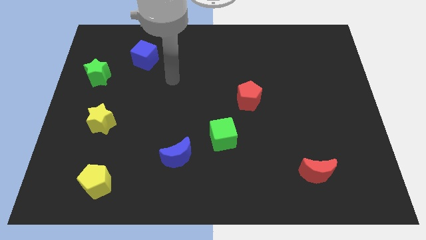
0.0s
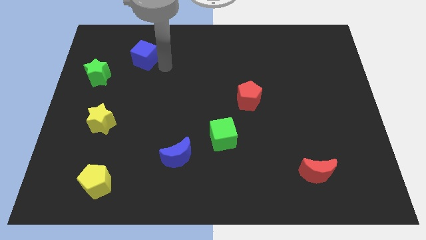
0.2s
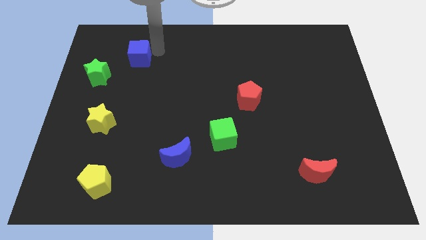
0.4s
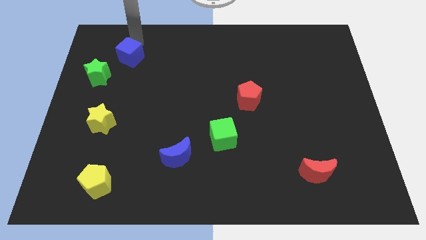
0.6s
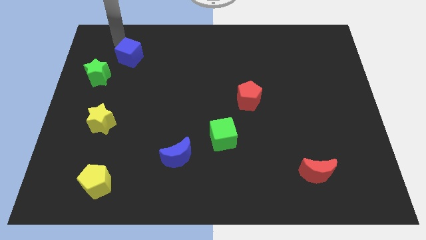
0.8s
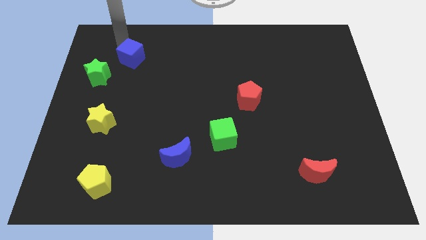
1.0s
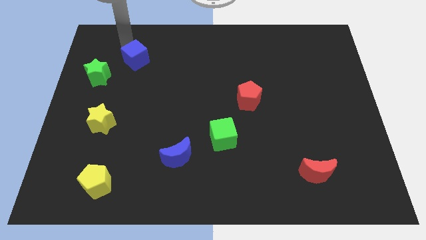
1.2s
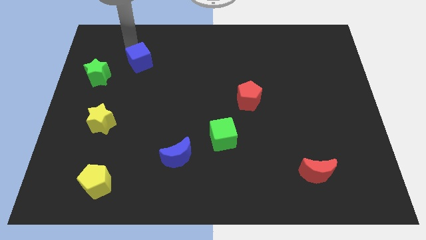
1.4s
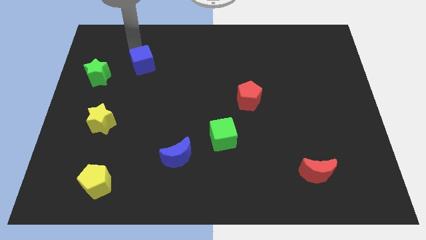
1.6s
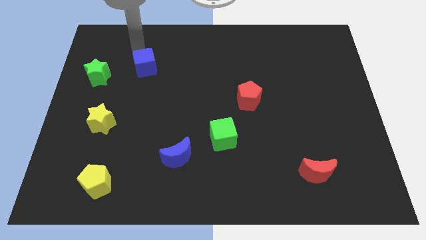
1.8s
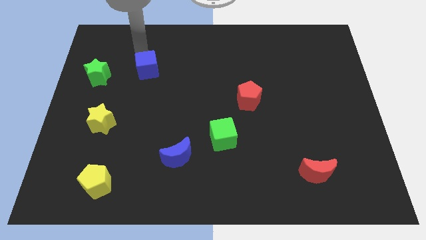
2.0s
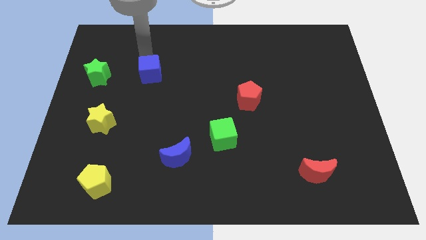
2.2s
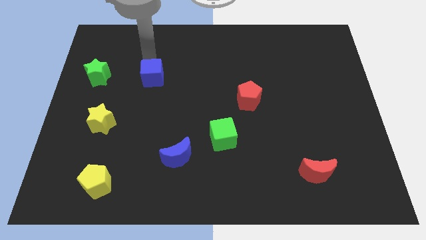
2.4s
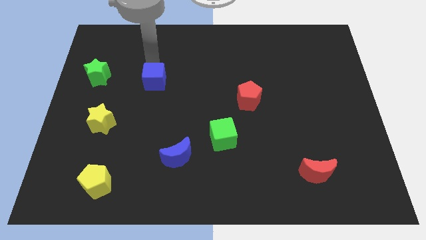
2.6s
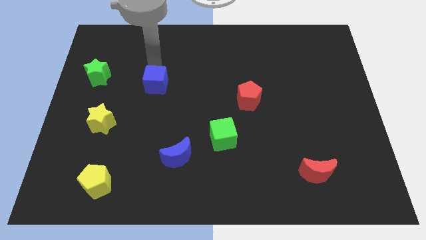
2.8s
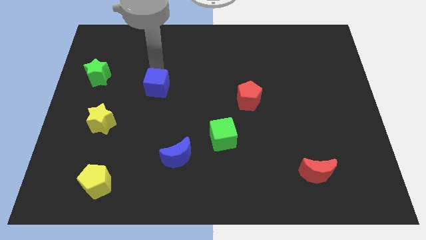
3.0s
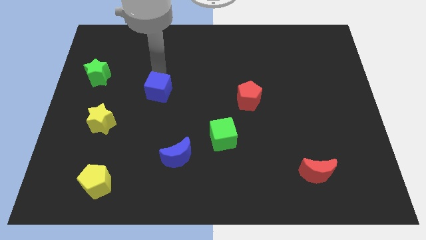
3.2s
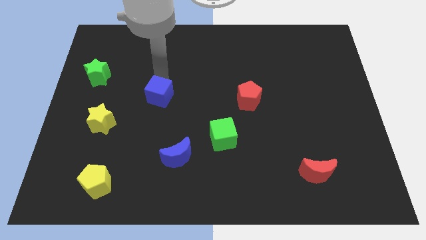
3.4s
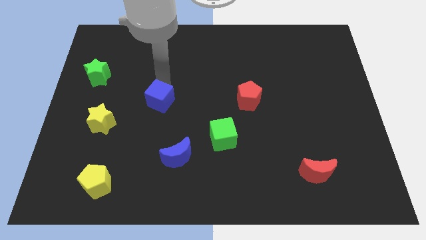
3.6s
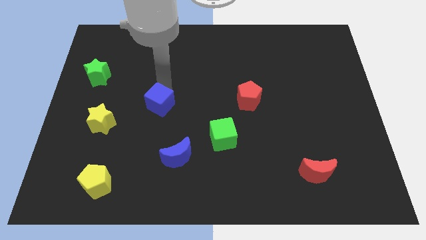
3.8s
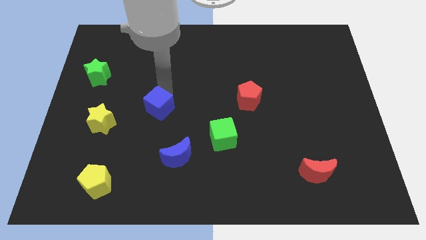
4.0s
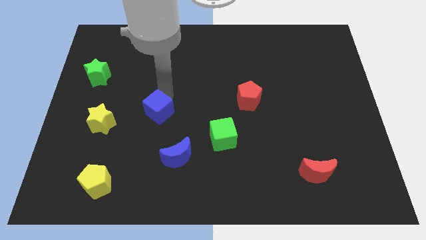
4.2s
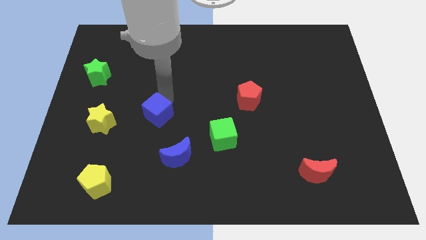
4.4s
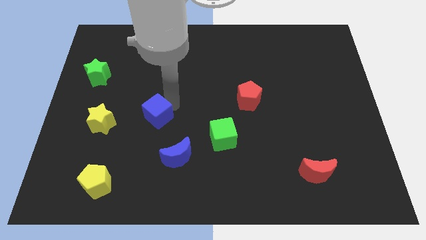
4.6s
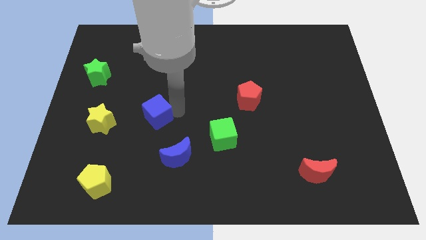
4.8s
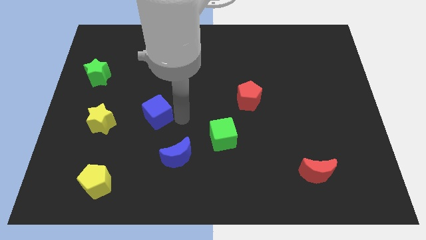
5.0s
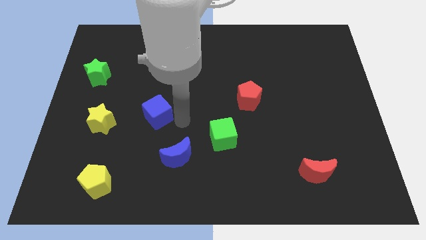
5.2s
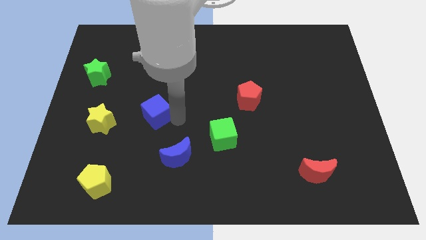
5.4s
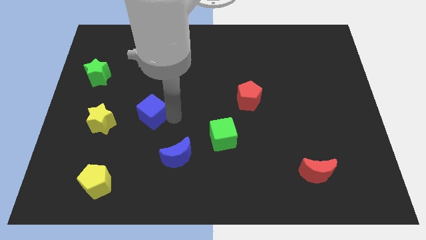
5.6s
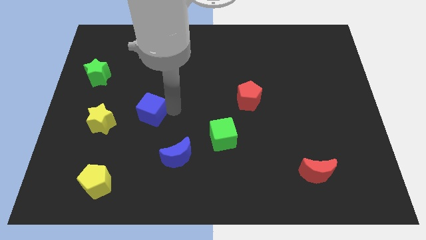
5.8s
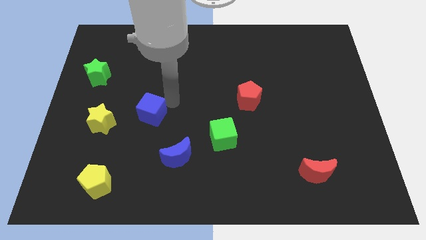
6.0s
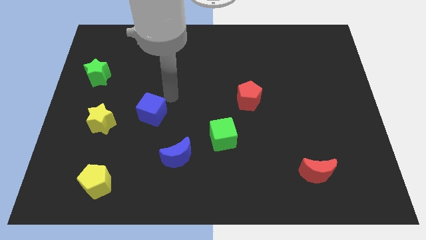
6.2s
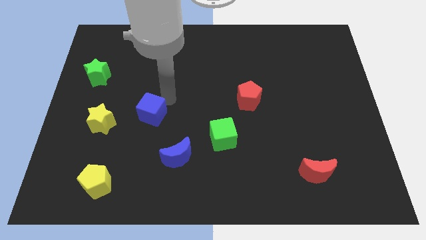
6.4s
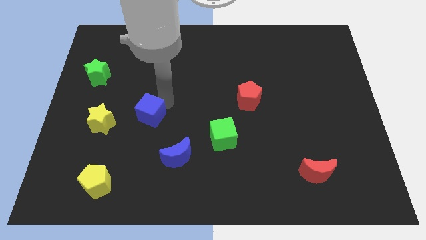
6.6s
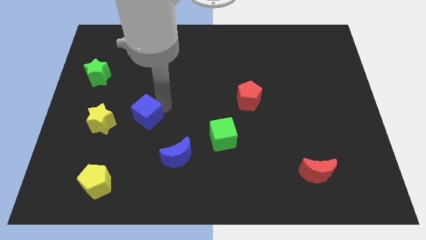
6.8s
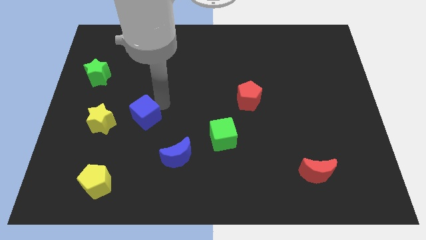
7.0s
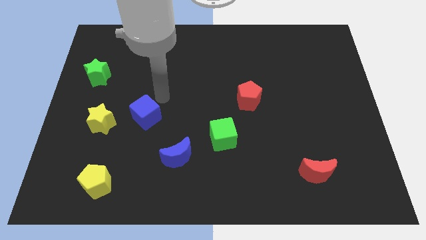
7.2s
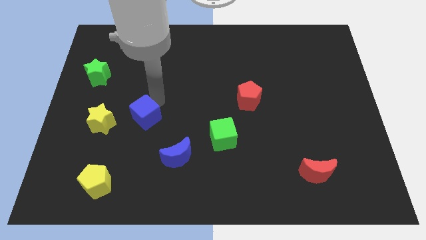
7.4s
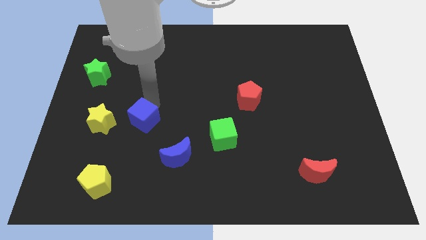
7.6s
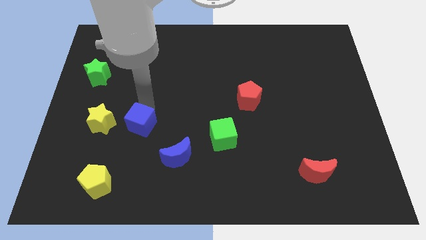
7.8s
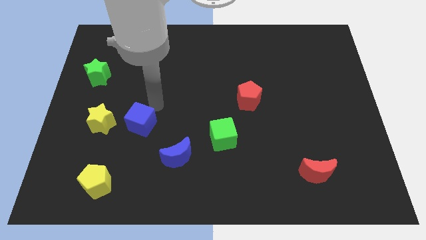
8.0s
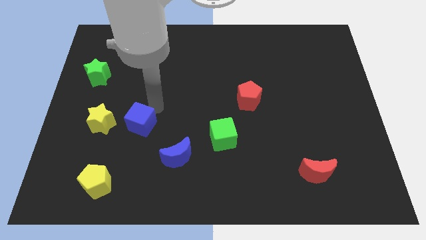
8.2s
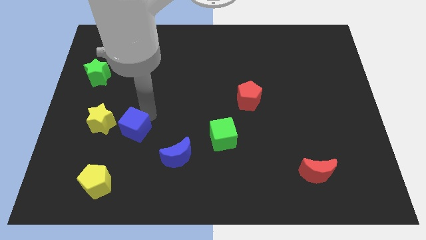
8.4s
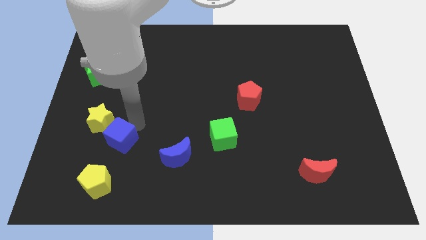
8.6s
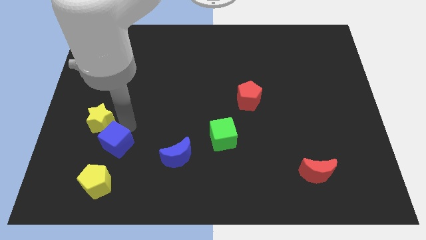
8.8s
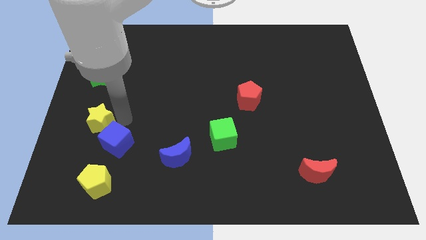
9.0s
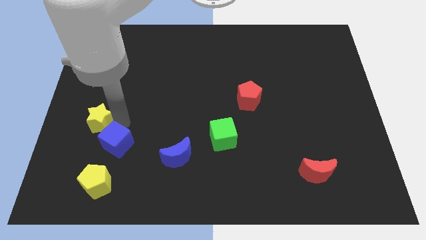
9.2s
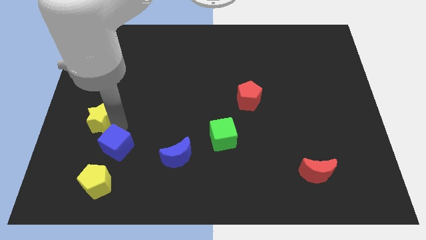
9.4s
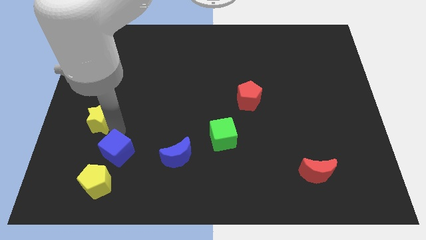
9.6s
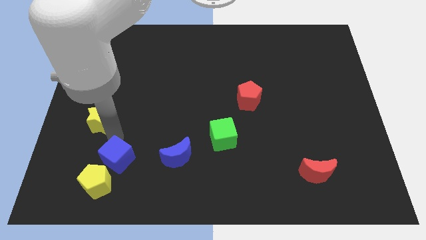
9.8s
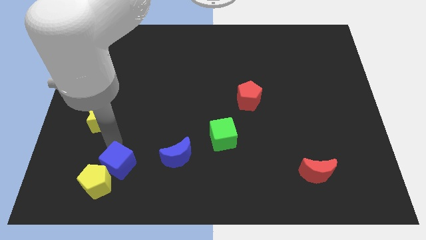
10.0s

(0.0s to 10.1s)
slide the blue cube next to the yellow pentagon

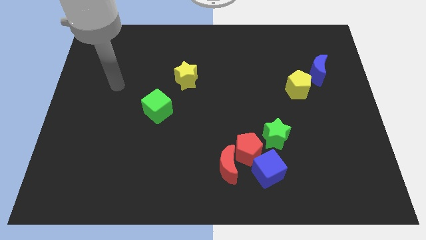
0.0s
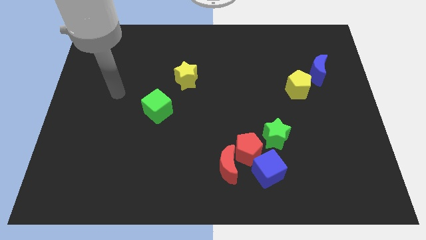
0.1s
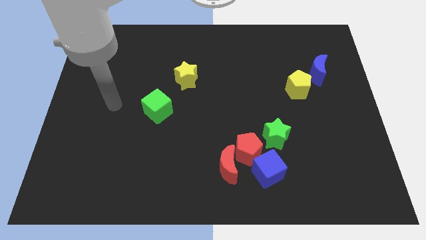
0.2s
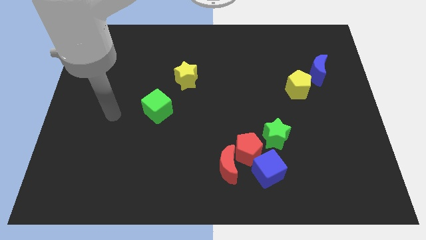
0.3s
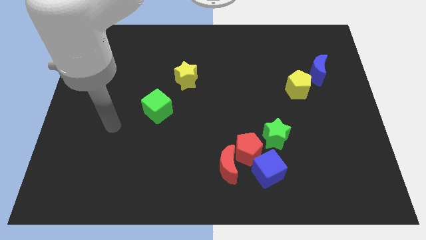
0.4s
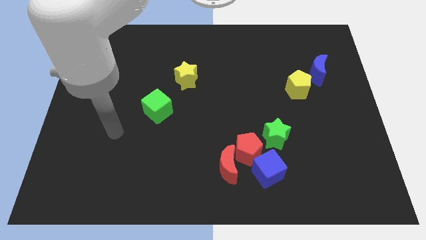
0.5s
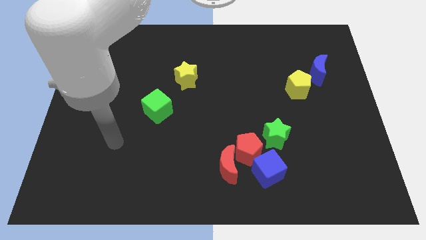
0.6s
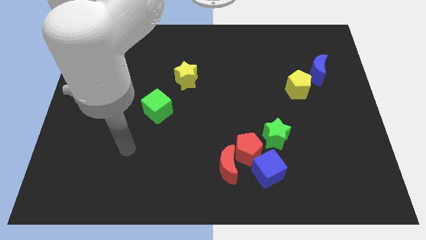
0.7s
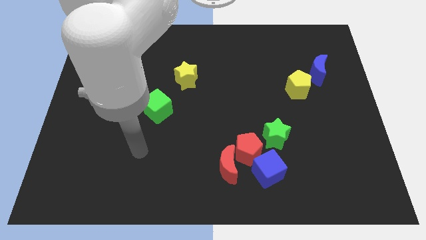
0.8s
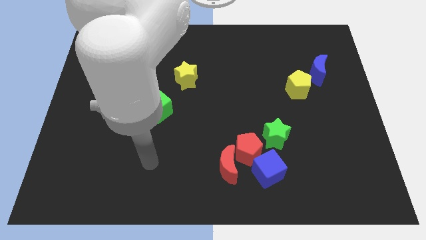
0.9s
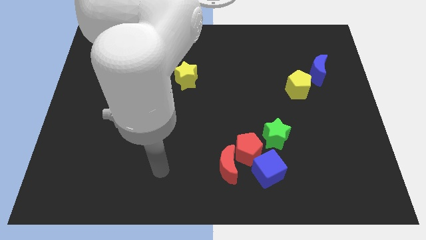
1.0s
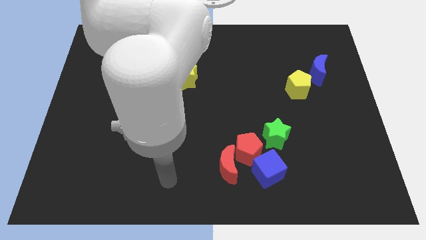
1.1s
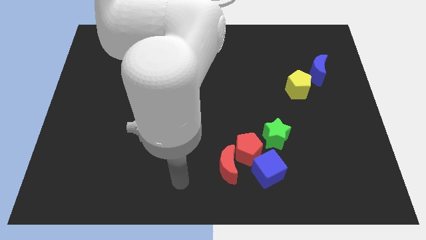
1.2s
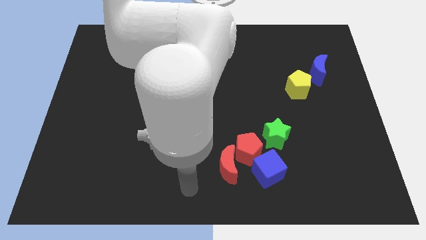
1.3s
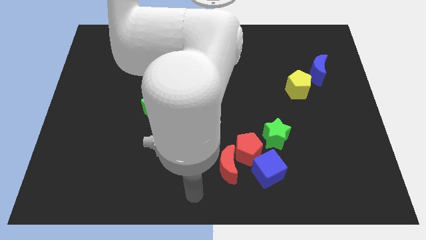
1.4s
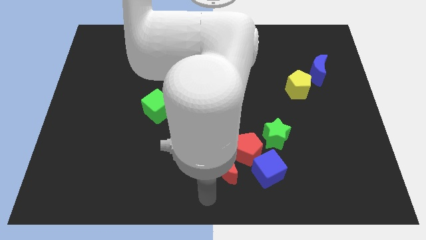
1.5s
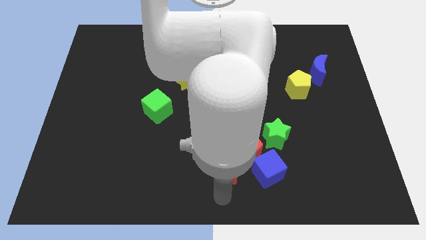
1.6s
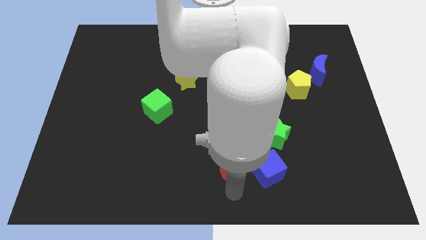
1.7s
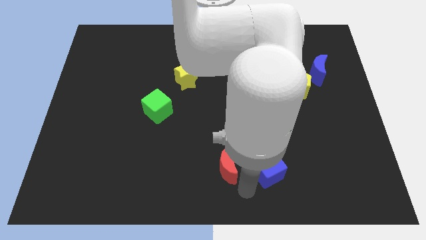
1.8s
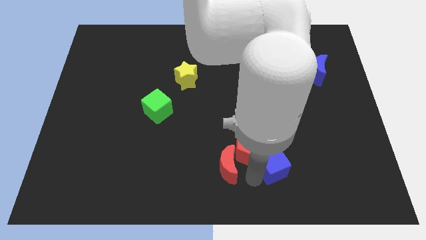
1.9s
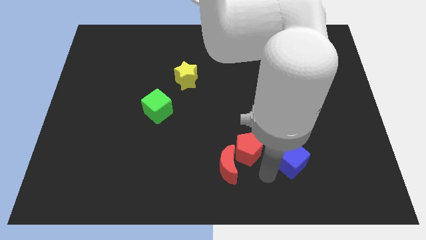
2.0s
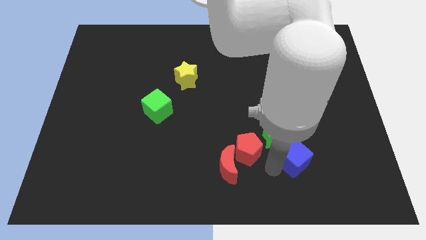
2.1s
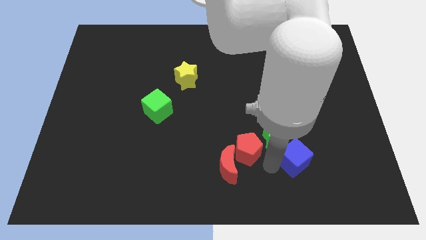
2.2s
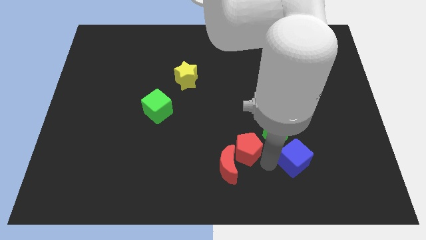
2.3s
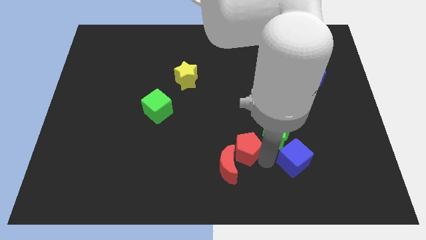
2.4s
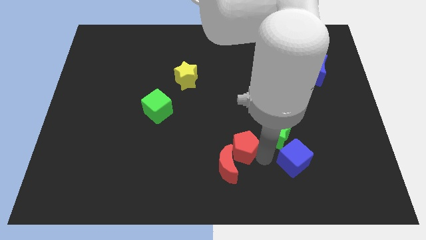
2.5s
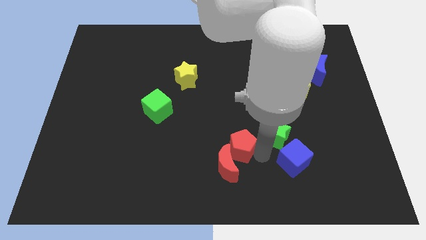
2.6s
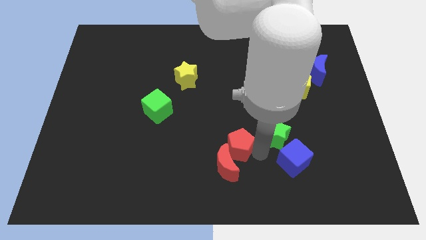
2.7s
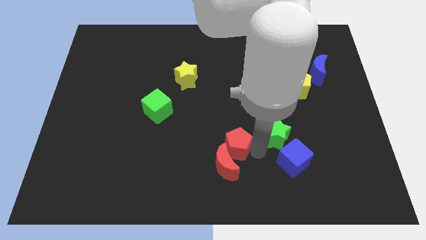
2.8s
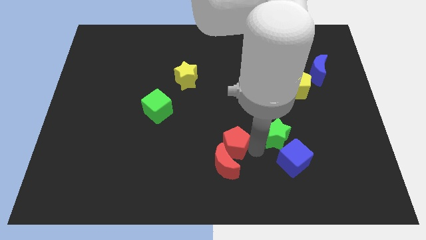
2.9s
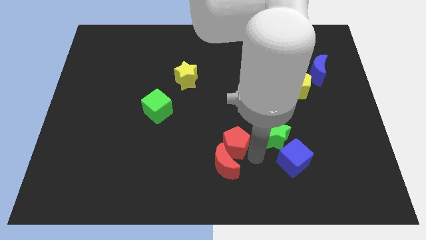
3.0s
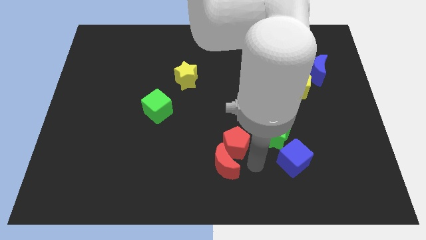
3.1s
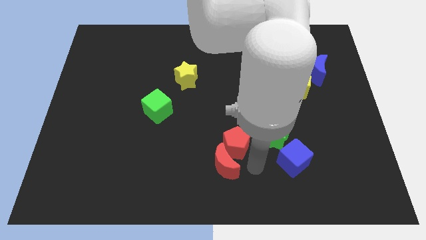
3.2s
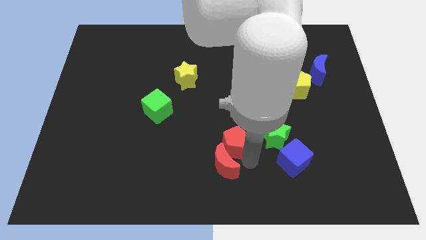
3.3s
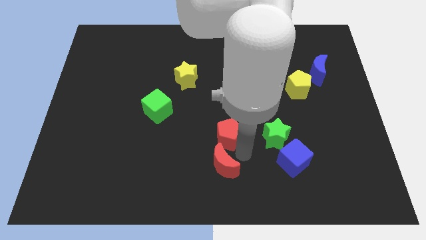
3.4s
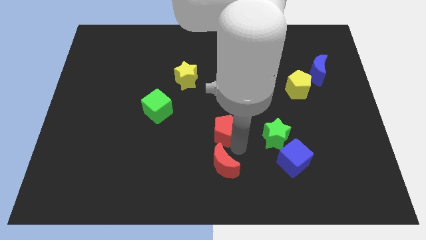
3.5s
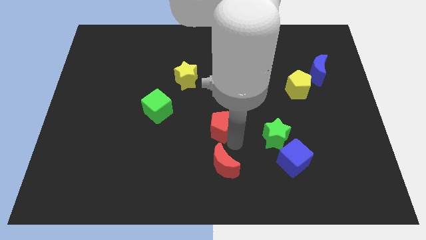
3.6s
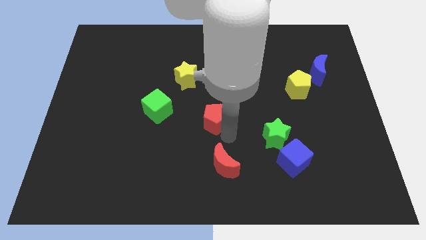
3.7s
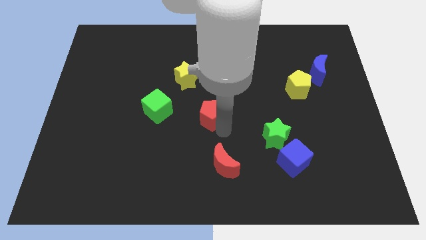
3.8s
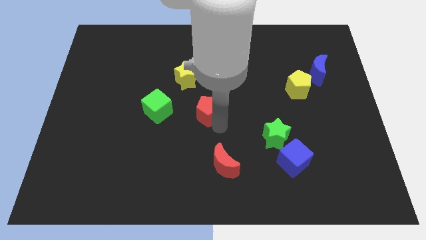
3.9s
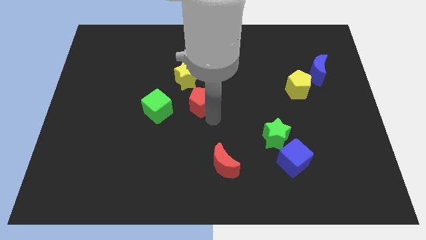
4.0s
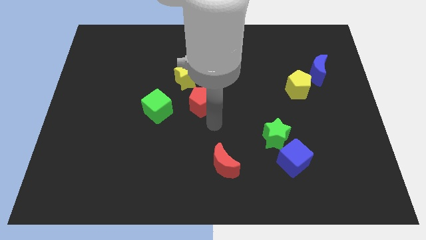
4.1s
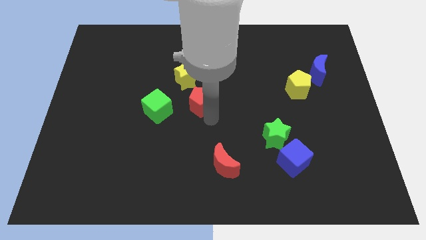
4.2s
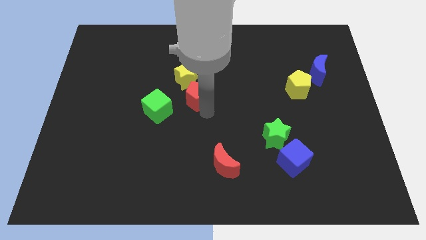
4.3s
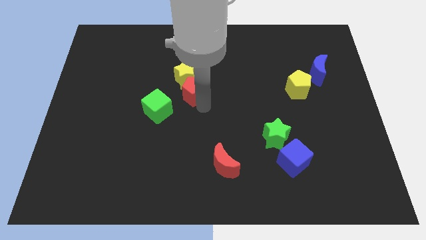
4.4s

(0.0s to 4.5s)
put the red pentagon to the yellow star
